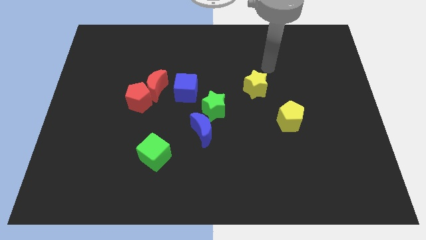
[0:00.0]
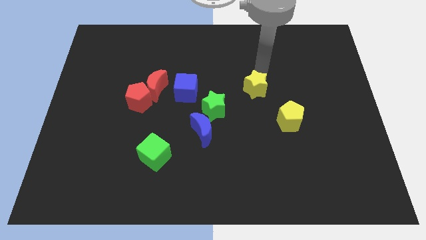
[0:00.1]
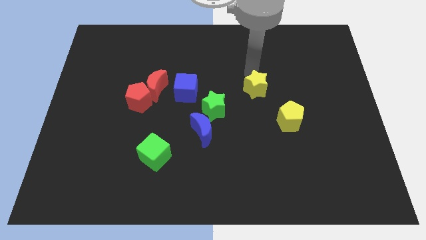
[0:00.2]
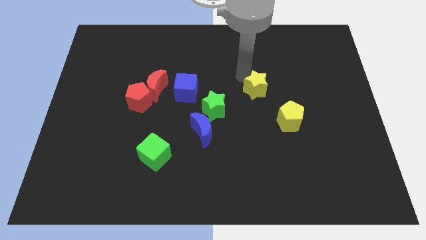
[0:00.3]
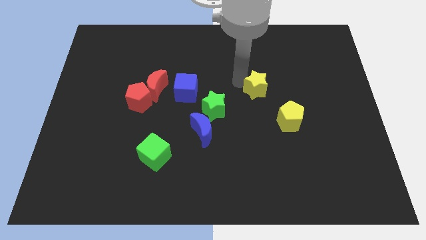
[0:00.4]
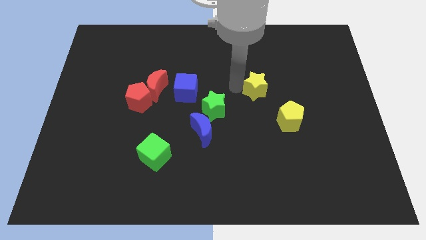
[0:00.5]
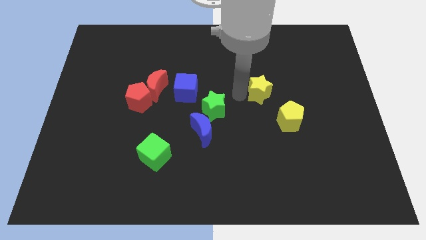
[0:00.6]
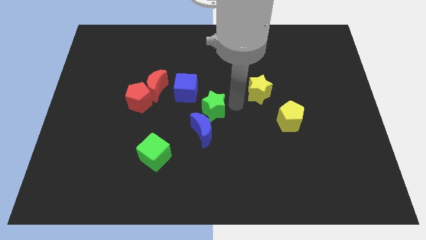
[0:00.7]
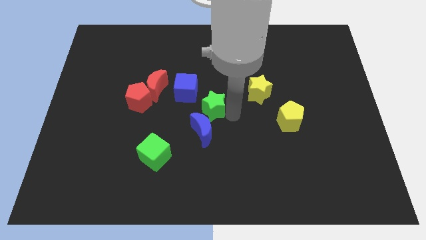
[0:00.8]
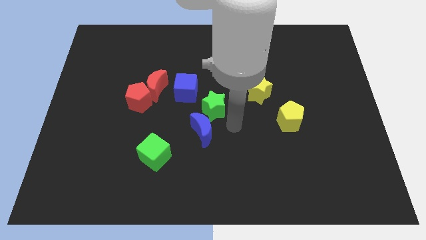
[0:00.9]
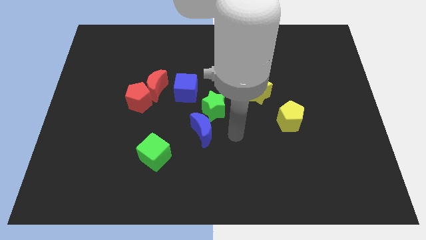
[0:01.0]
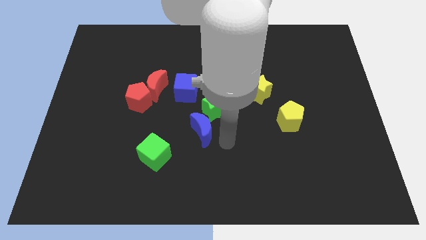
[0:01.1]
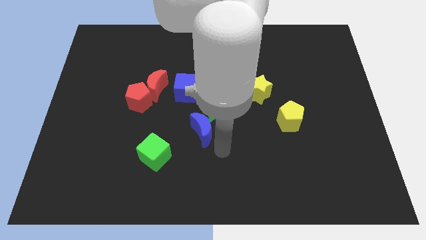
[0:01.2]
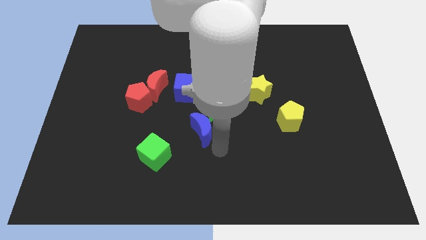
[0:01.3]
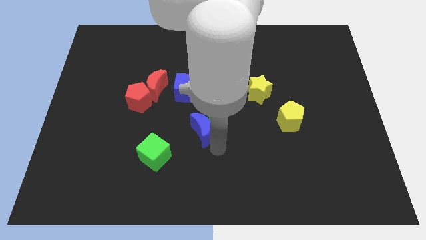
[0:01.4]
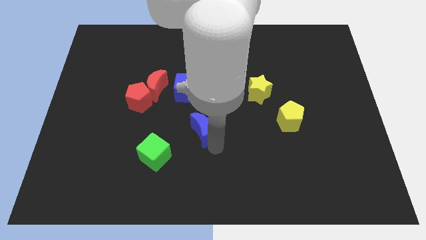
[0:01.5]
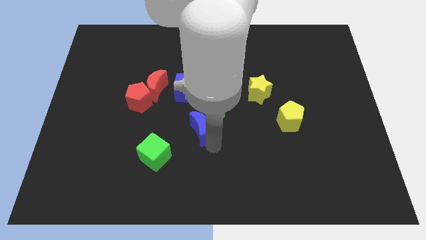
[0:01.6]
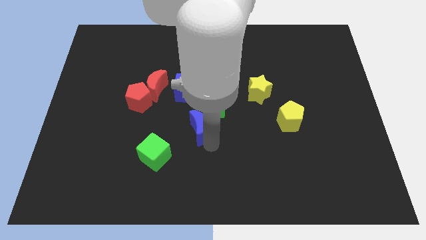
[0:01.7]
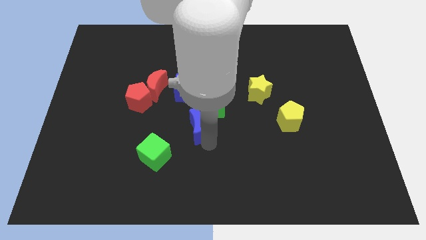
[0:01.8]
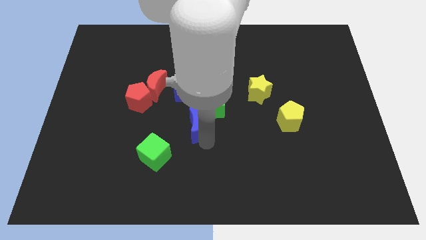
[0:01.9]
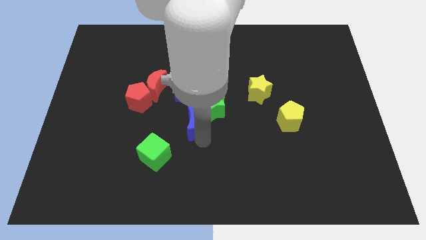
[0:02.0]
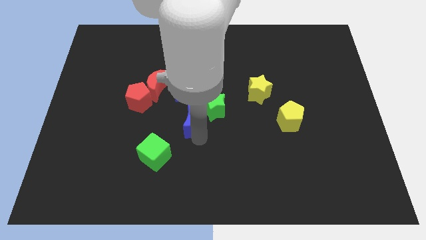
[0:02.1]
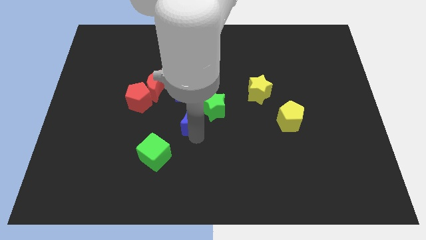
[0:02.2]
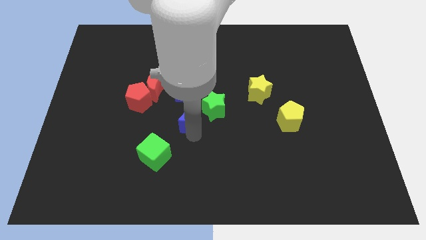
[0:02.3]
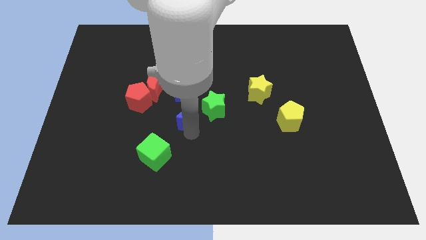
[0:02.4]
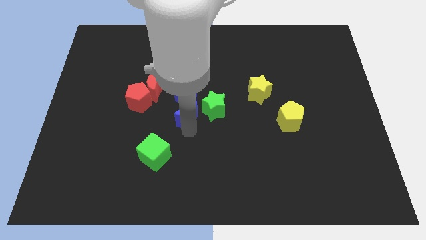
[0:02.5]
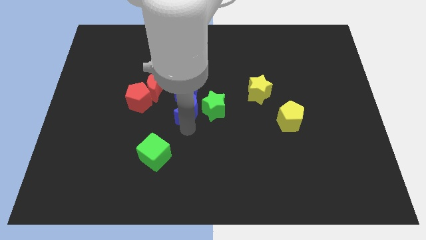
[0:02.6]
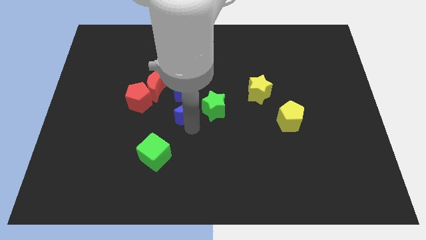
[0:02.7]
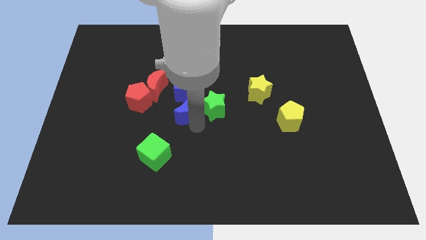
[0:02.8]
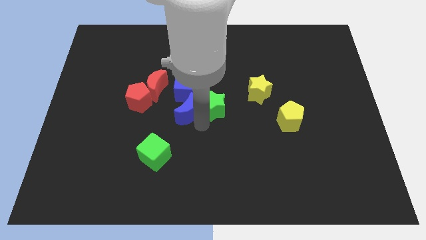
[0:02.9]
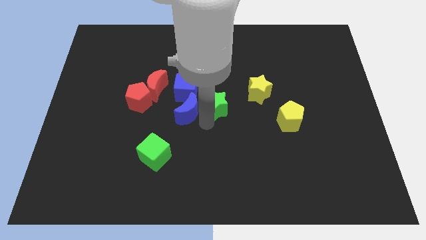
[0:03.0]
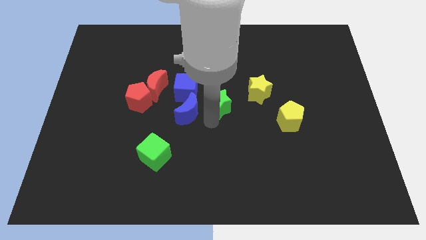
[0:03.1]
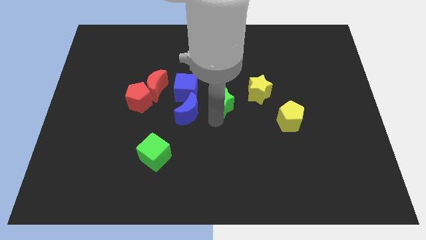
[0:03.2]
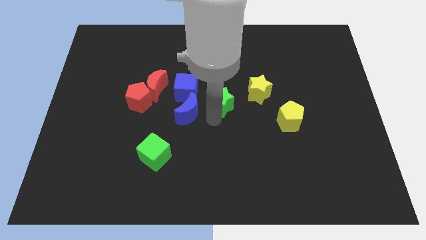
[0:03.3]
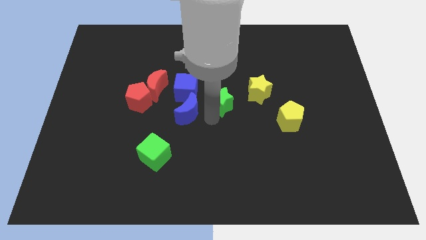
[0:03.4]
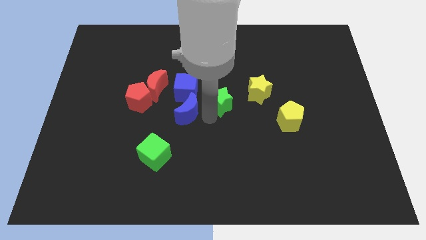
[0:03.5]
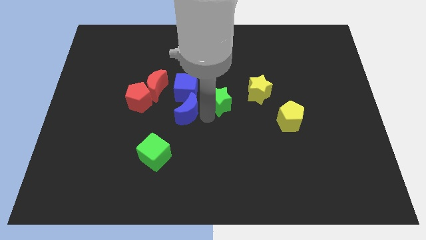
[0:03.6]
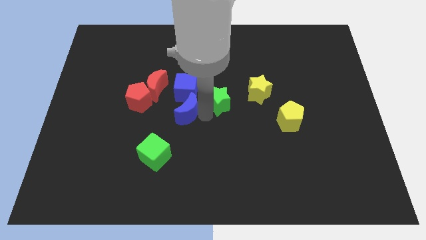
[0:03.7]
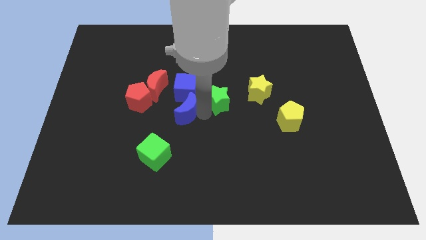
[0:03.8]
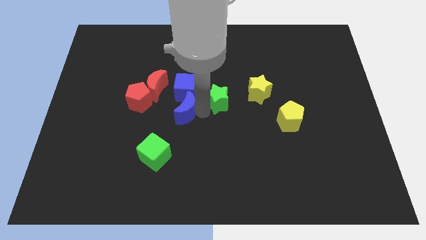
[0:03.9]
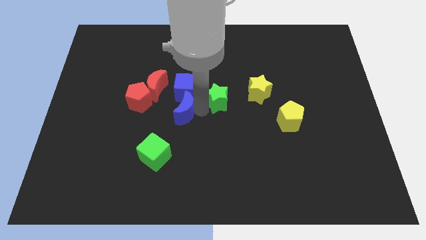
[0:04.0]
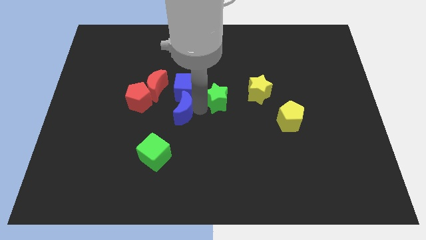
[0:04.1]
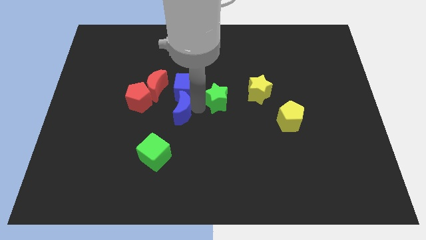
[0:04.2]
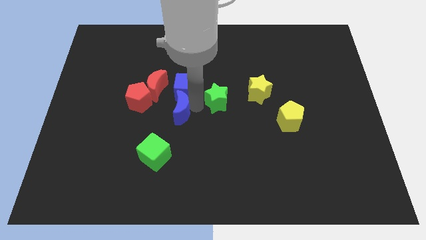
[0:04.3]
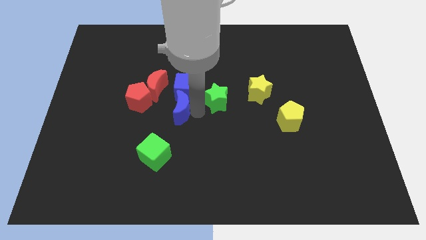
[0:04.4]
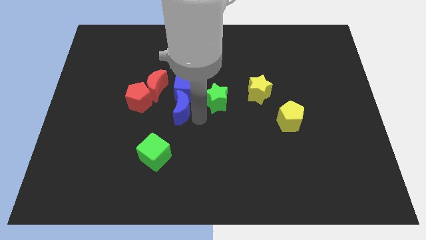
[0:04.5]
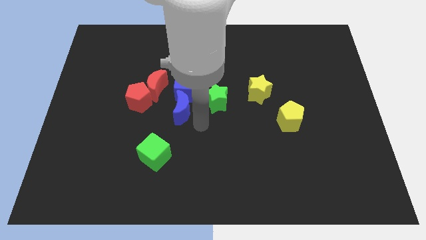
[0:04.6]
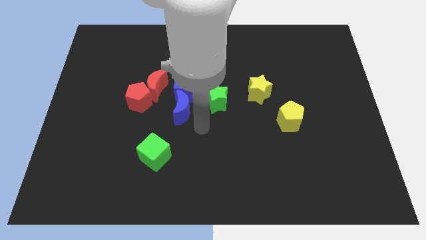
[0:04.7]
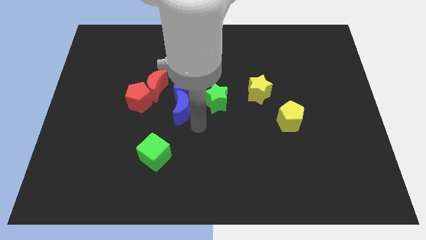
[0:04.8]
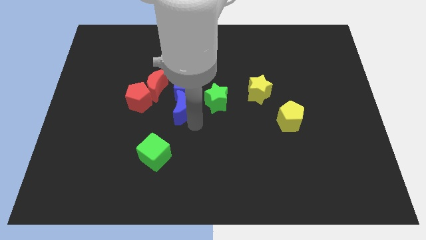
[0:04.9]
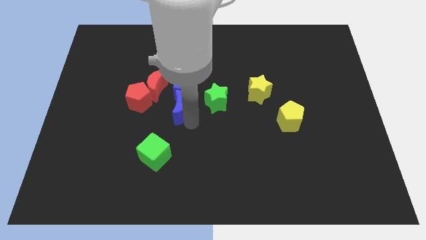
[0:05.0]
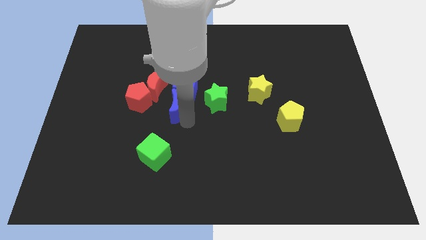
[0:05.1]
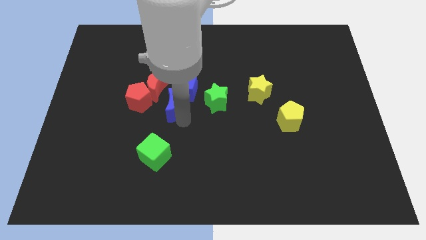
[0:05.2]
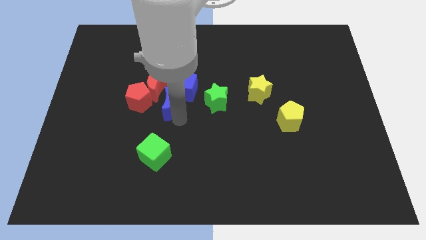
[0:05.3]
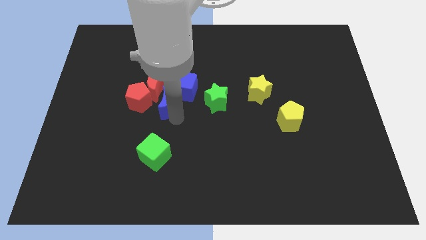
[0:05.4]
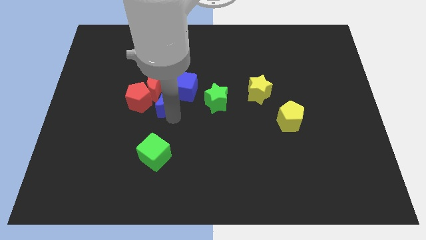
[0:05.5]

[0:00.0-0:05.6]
push the blue moon close to the red moon

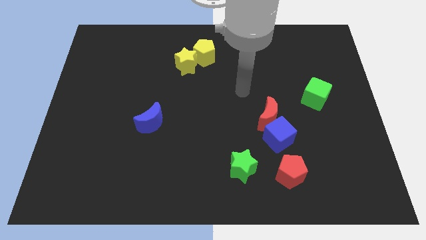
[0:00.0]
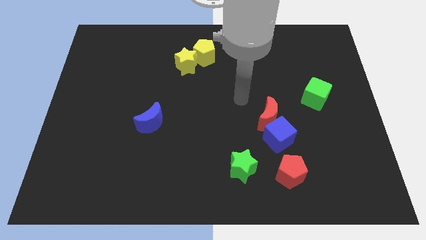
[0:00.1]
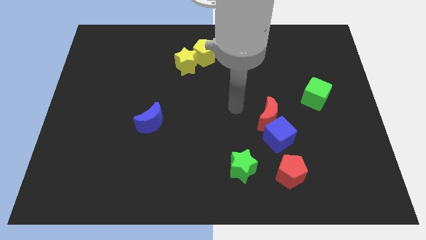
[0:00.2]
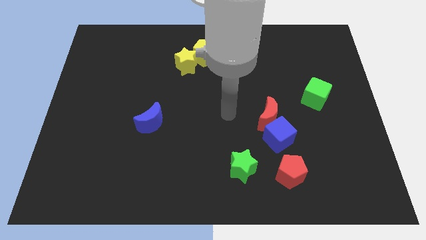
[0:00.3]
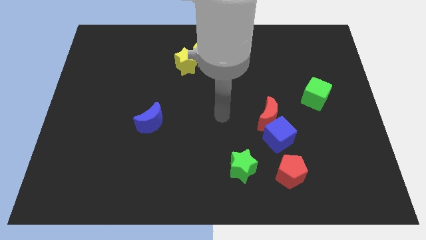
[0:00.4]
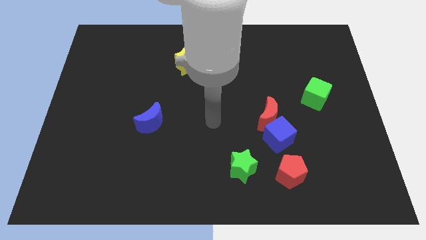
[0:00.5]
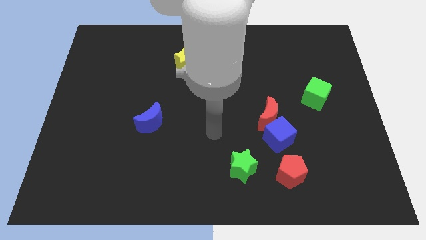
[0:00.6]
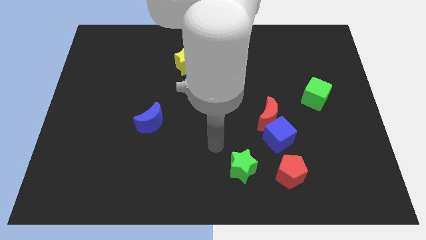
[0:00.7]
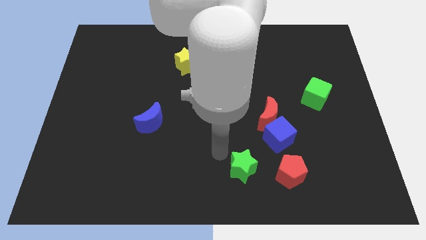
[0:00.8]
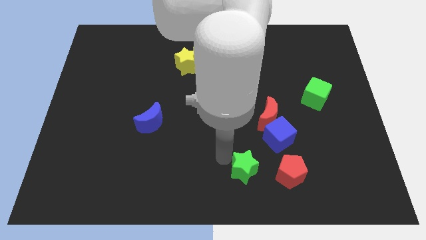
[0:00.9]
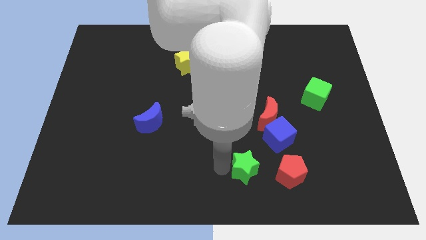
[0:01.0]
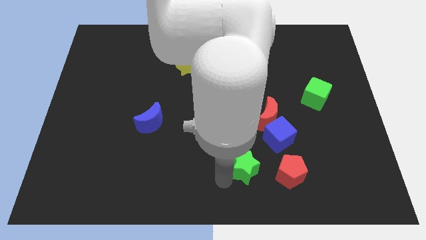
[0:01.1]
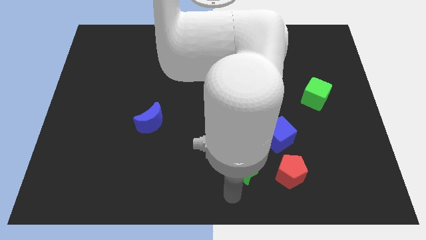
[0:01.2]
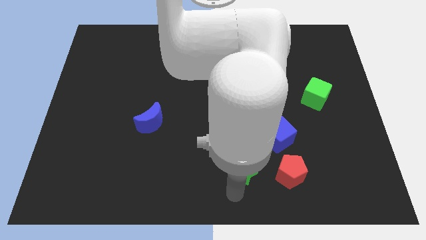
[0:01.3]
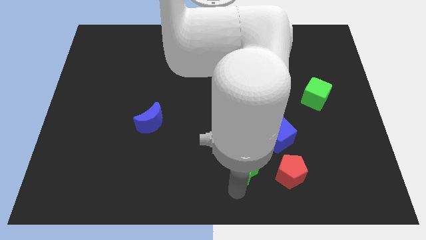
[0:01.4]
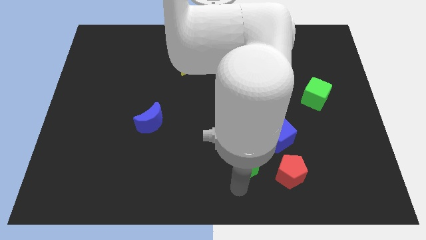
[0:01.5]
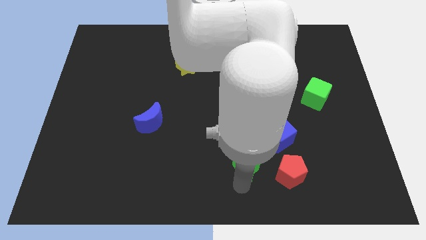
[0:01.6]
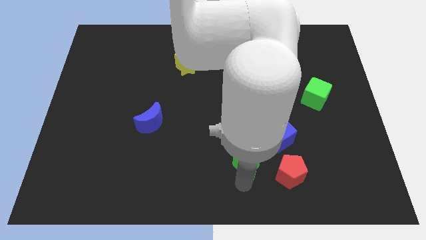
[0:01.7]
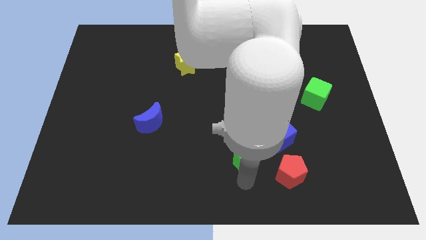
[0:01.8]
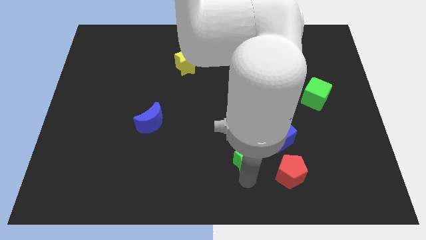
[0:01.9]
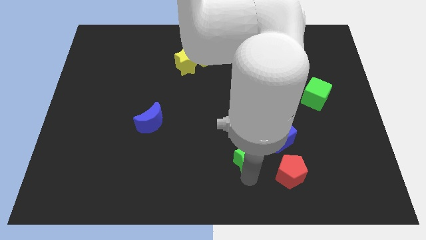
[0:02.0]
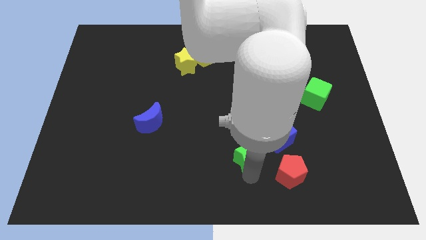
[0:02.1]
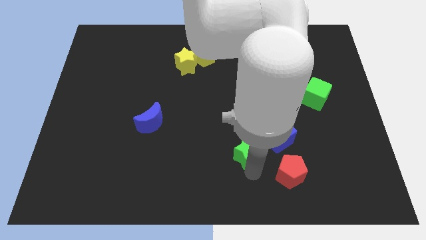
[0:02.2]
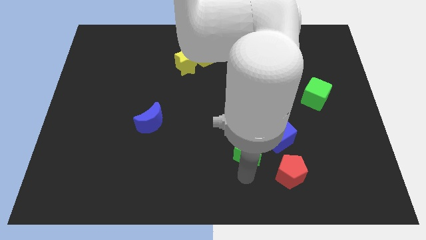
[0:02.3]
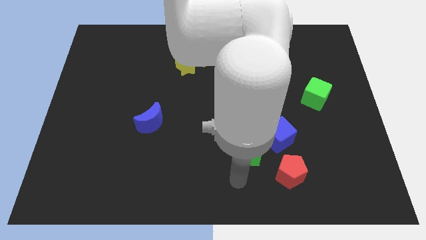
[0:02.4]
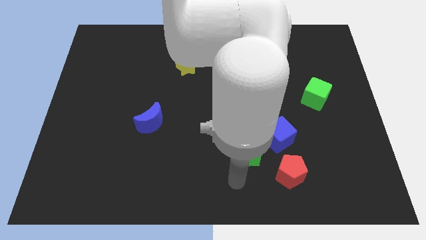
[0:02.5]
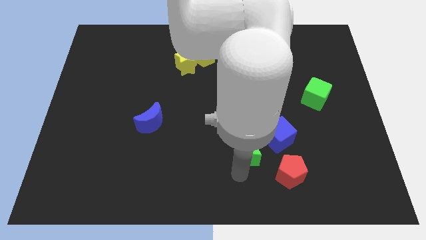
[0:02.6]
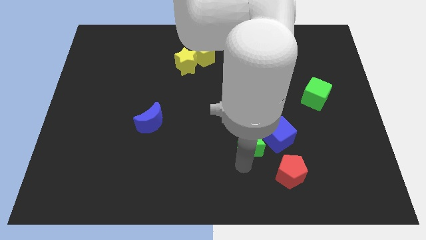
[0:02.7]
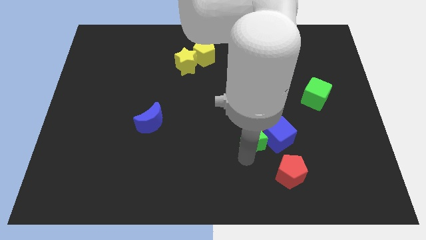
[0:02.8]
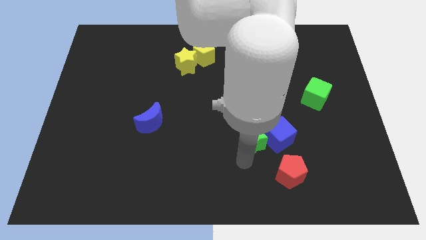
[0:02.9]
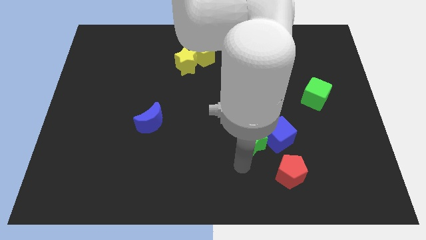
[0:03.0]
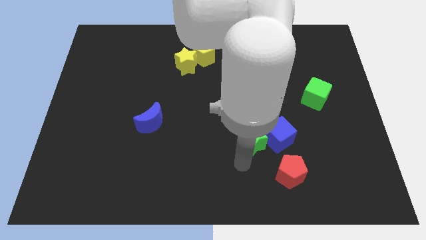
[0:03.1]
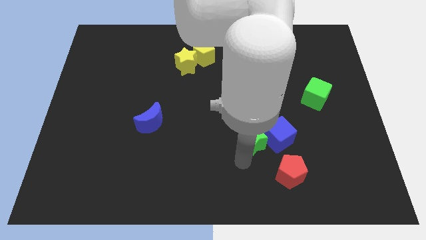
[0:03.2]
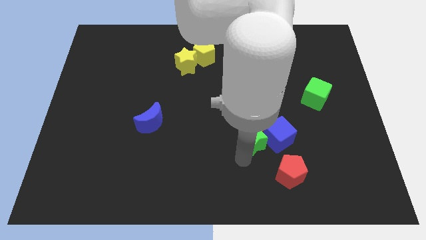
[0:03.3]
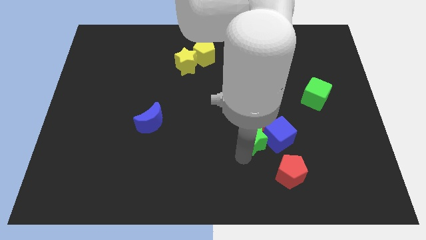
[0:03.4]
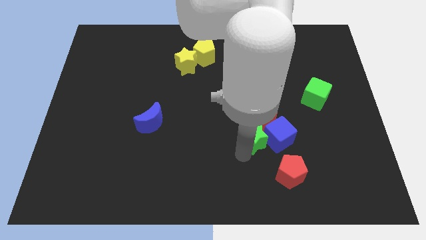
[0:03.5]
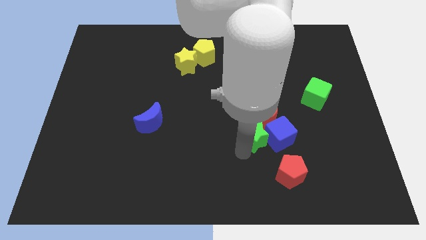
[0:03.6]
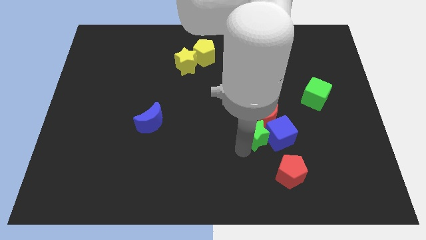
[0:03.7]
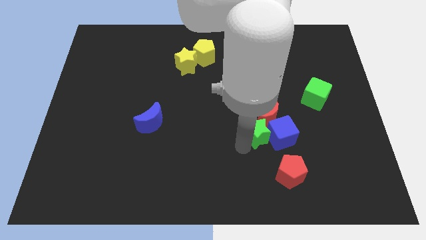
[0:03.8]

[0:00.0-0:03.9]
slide the green star towards the red moon
